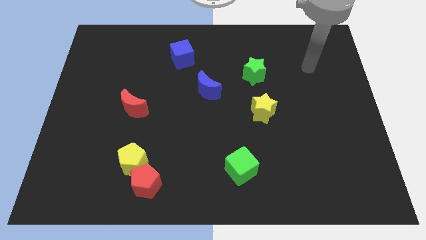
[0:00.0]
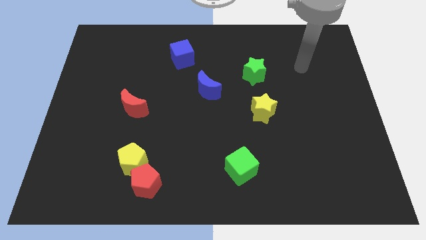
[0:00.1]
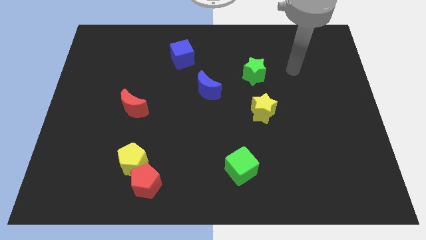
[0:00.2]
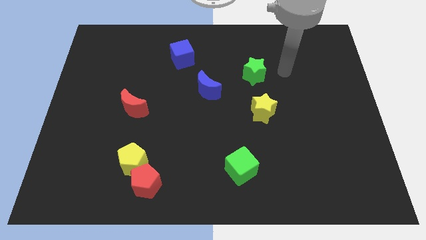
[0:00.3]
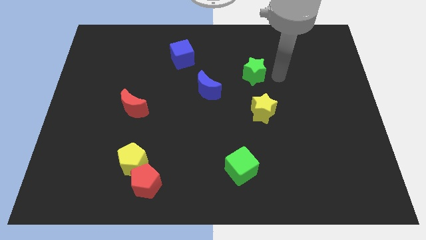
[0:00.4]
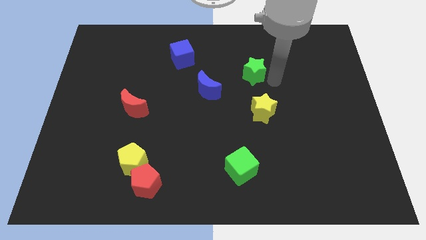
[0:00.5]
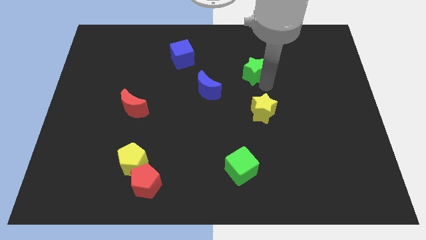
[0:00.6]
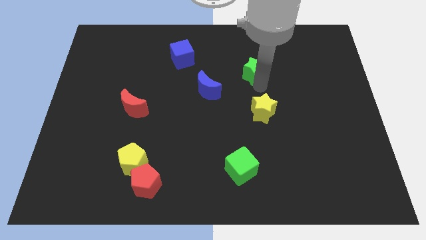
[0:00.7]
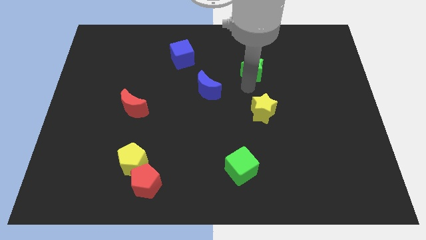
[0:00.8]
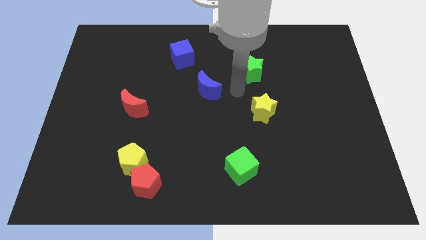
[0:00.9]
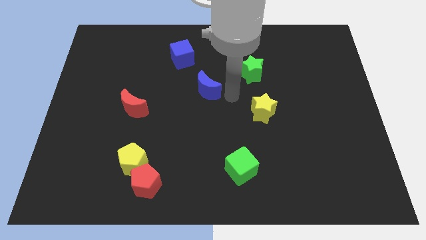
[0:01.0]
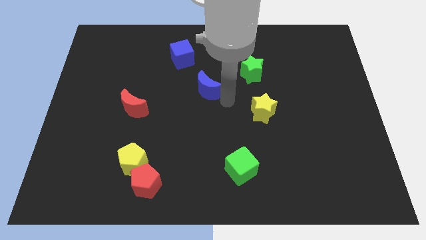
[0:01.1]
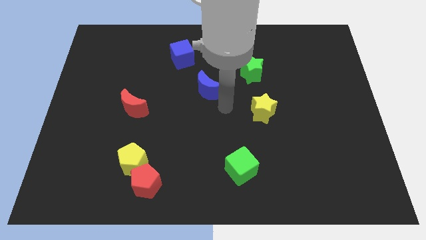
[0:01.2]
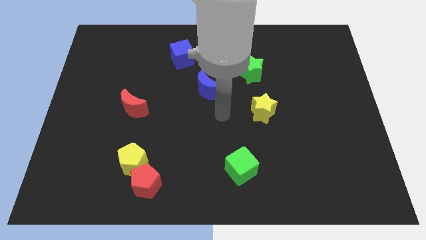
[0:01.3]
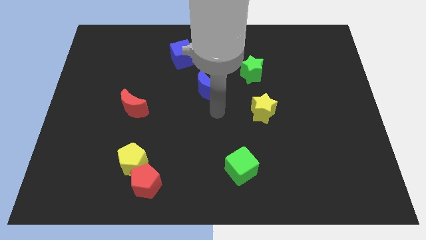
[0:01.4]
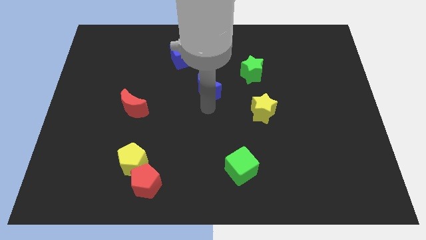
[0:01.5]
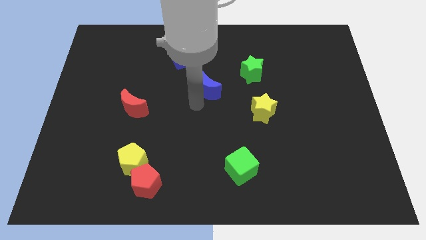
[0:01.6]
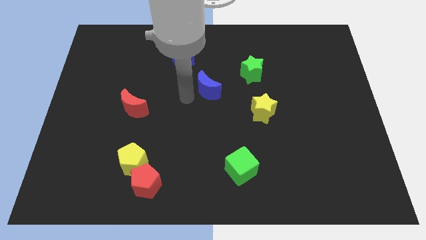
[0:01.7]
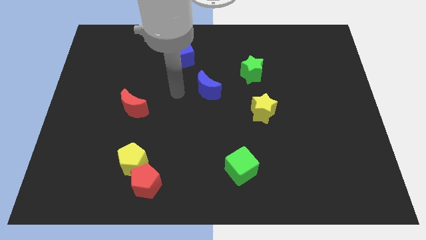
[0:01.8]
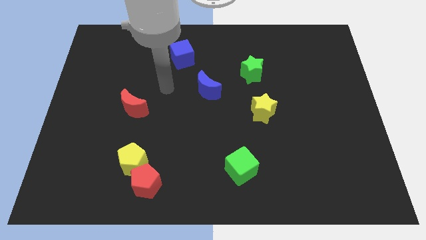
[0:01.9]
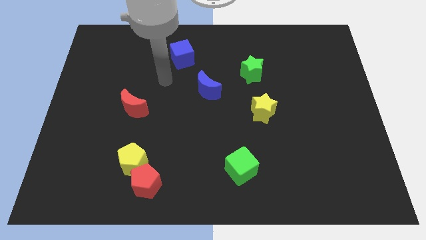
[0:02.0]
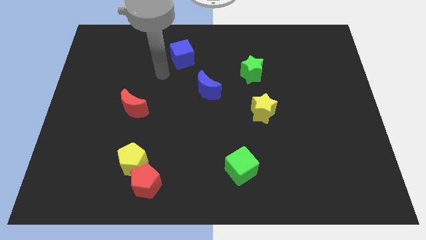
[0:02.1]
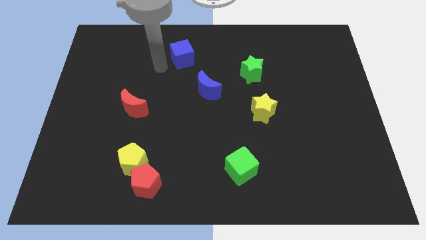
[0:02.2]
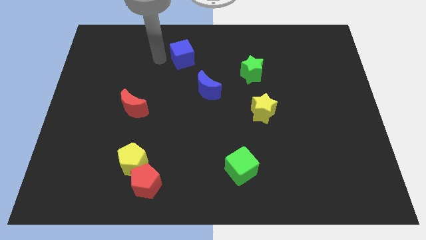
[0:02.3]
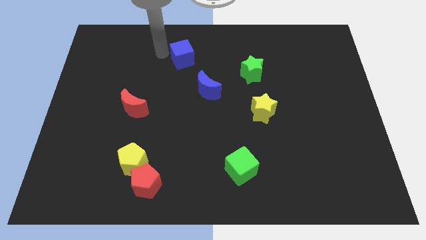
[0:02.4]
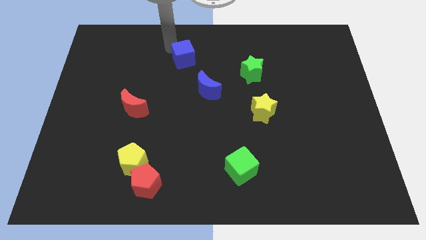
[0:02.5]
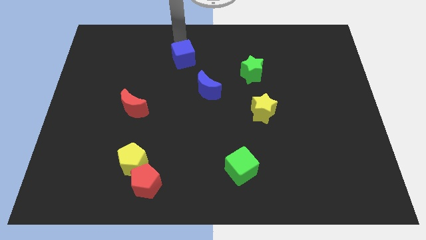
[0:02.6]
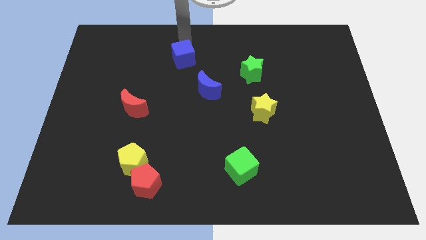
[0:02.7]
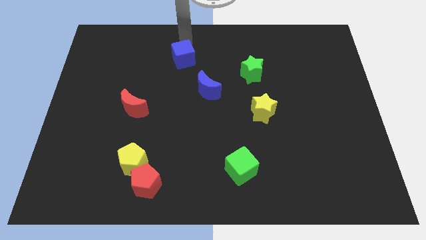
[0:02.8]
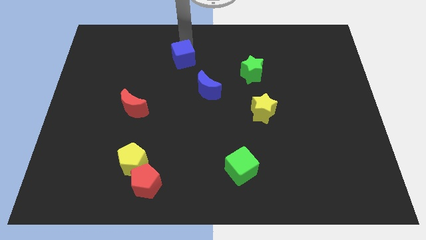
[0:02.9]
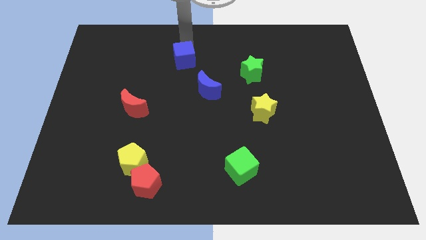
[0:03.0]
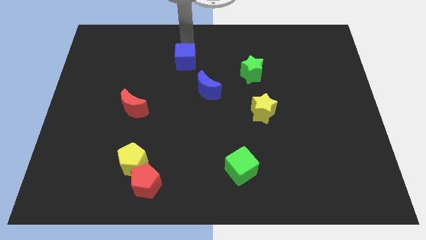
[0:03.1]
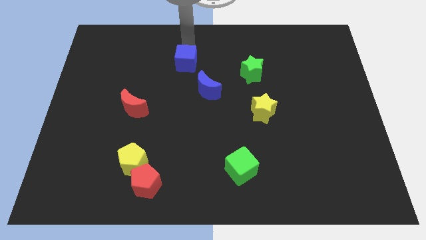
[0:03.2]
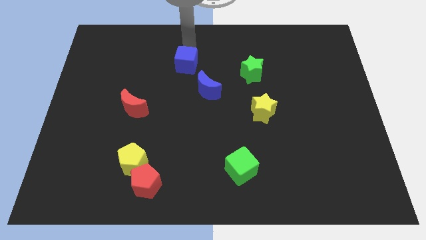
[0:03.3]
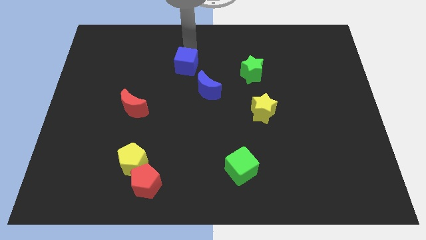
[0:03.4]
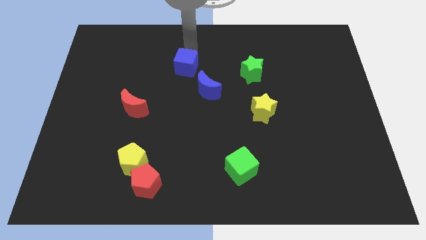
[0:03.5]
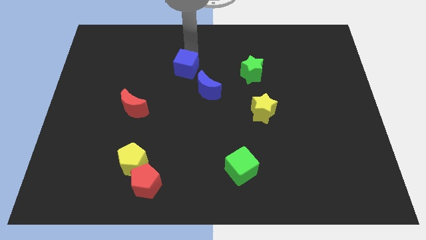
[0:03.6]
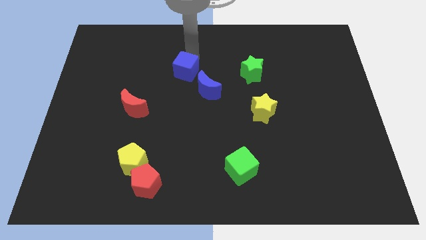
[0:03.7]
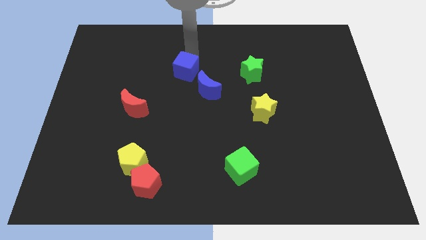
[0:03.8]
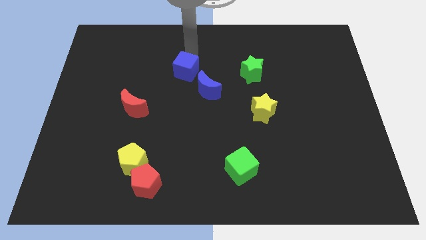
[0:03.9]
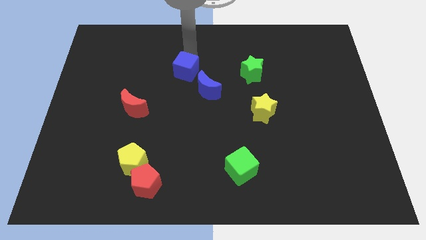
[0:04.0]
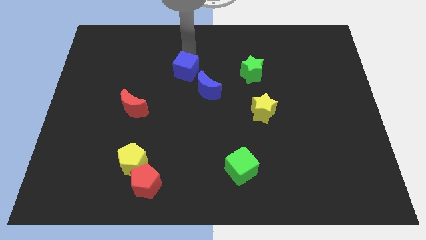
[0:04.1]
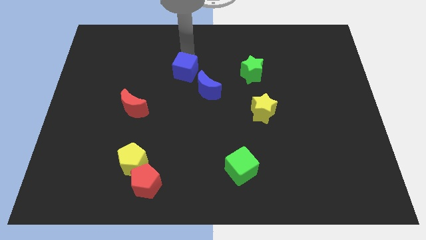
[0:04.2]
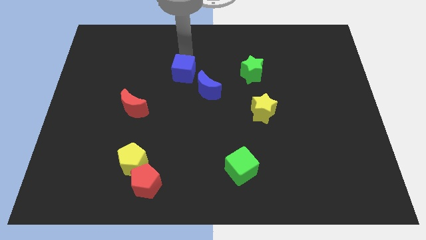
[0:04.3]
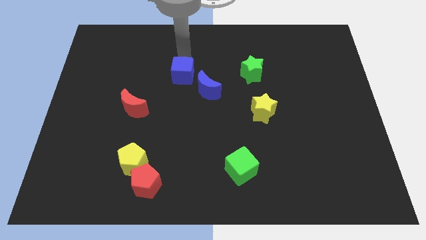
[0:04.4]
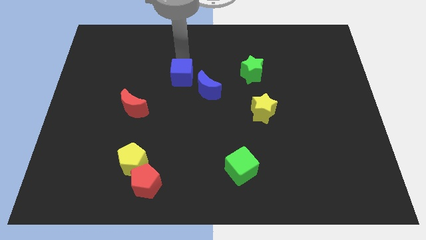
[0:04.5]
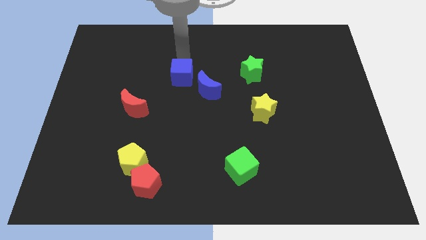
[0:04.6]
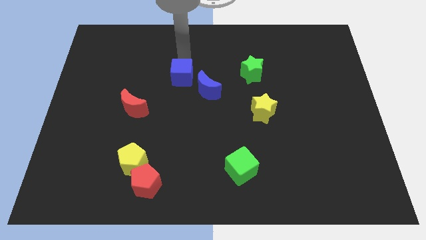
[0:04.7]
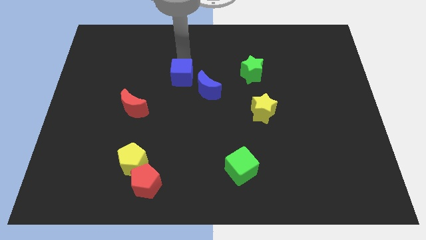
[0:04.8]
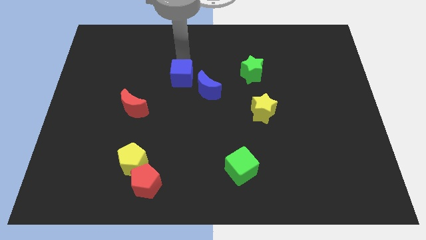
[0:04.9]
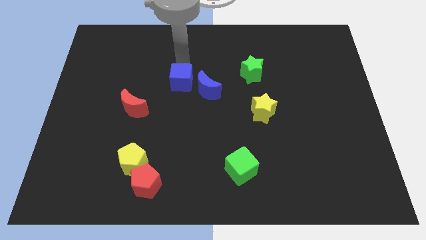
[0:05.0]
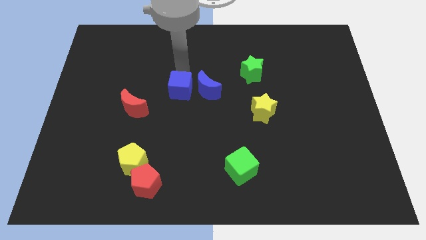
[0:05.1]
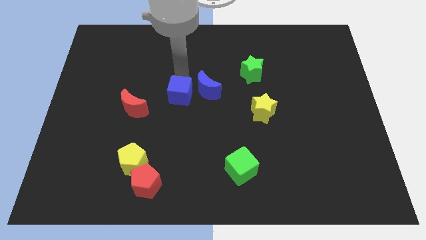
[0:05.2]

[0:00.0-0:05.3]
push the blue cube just right of the red moon

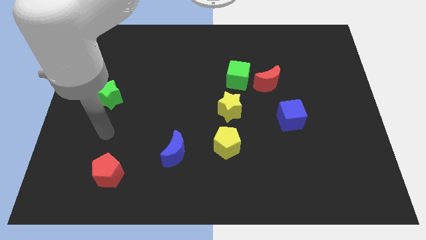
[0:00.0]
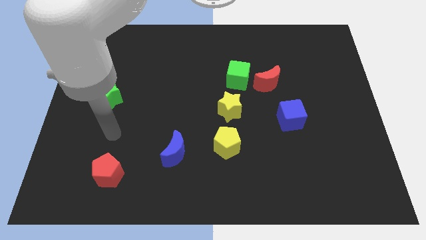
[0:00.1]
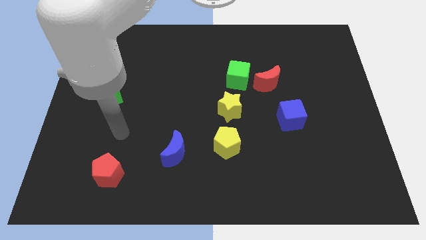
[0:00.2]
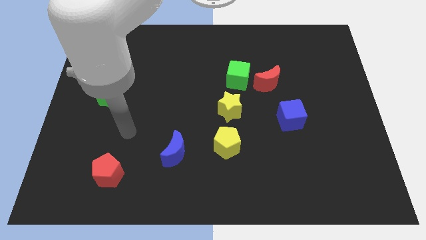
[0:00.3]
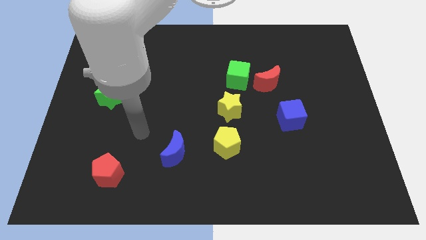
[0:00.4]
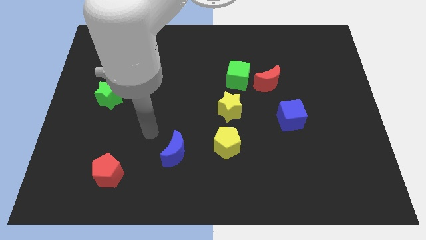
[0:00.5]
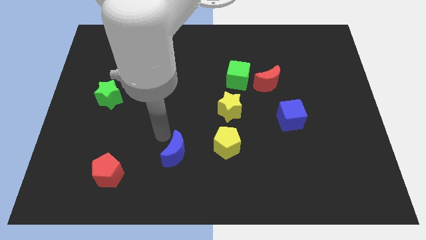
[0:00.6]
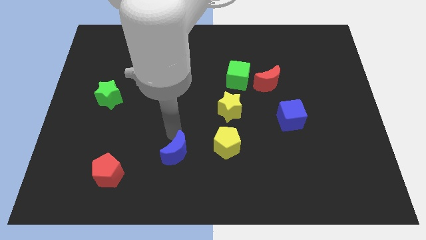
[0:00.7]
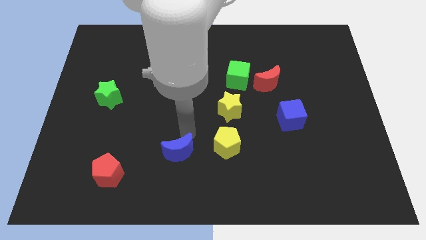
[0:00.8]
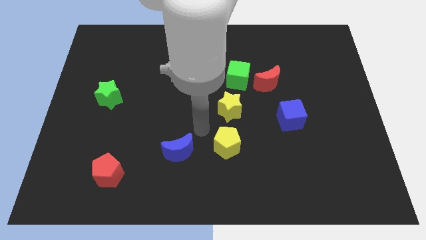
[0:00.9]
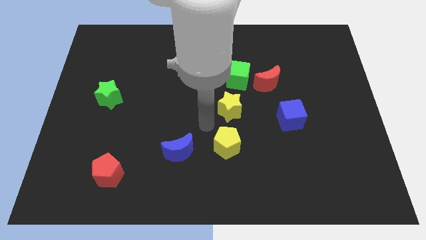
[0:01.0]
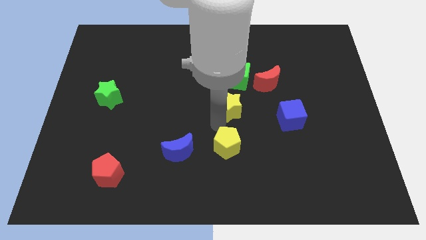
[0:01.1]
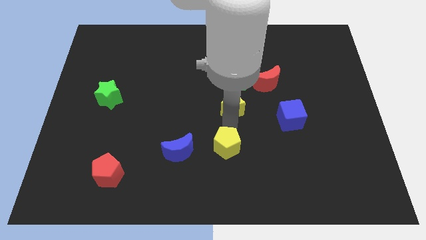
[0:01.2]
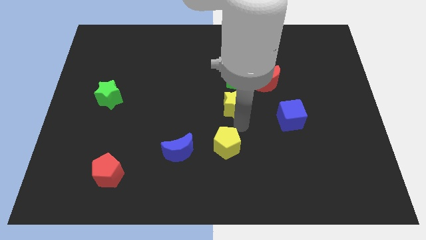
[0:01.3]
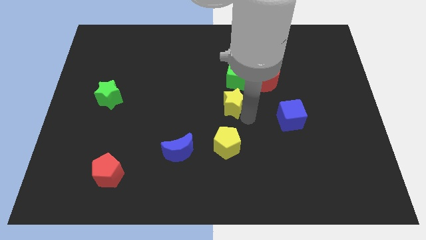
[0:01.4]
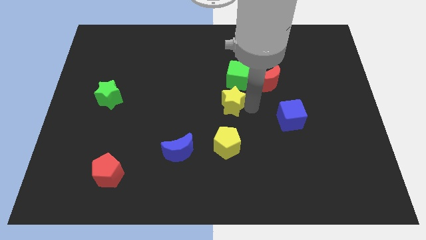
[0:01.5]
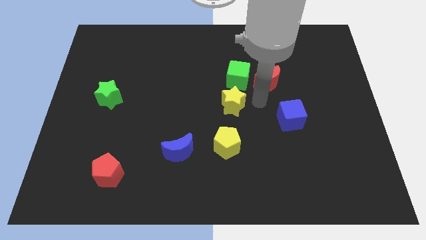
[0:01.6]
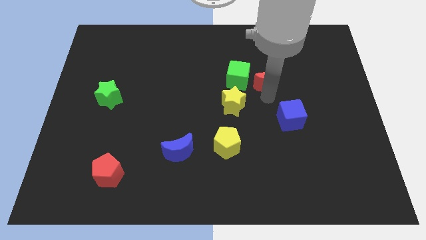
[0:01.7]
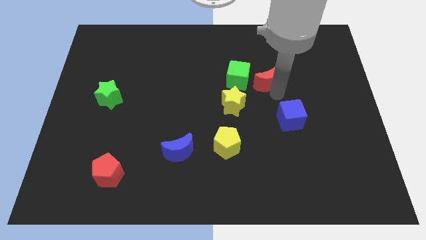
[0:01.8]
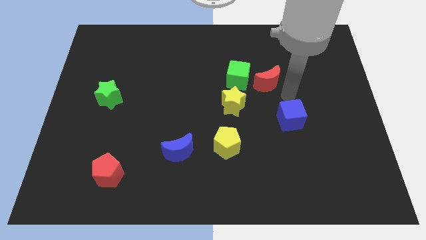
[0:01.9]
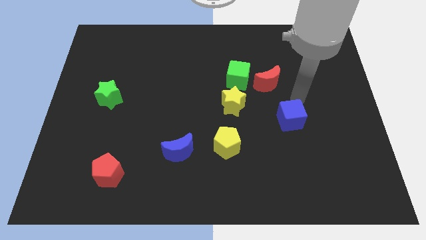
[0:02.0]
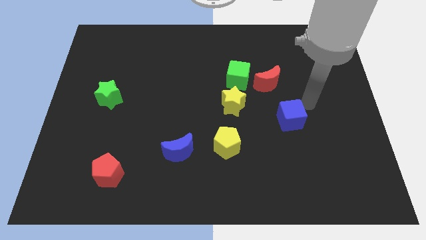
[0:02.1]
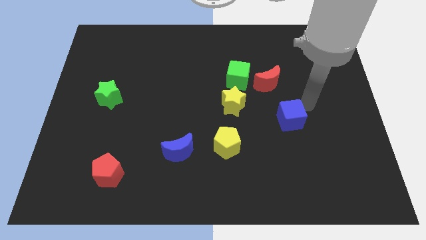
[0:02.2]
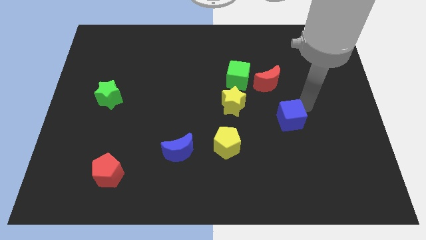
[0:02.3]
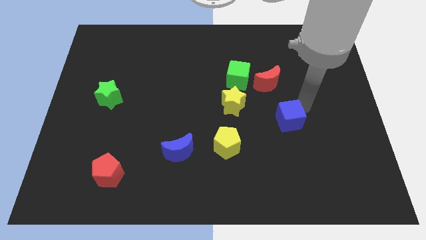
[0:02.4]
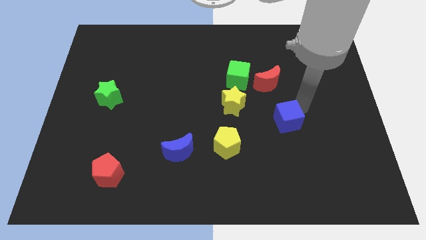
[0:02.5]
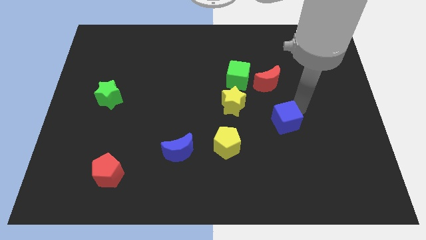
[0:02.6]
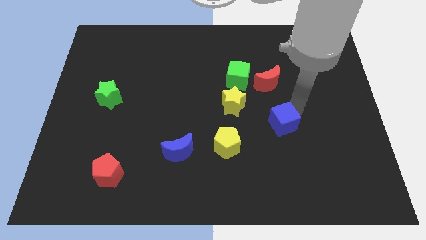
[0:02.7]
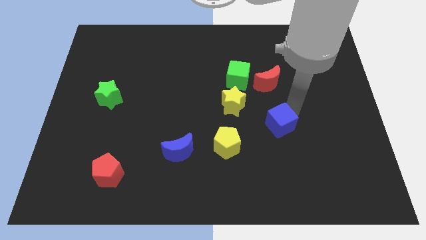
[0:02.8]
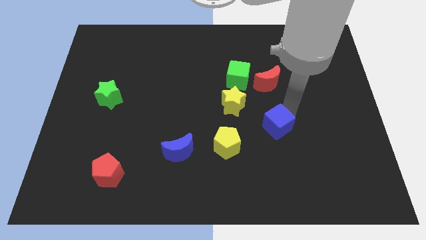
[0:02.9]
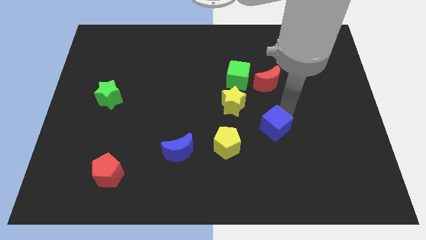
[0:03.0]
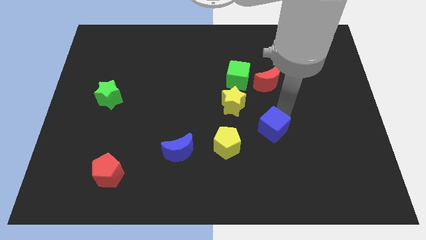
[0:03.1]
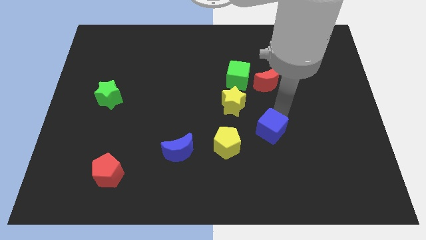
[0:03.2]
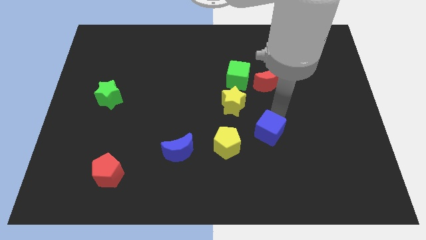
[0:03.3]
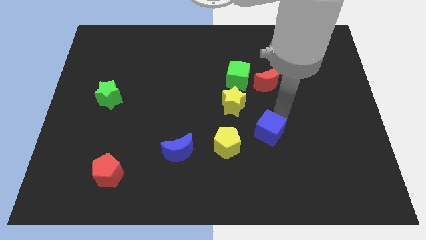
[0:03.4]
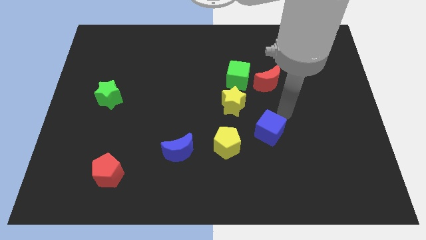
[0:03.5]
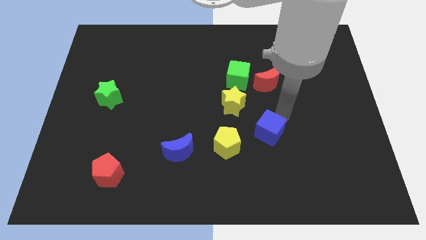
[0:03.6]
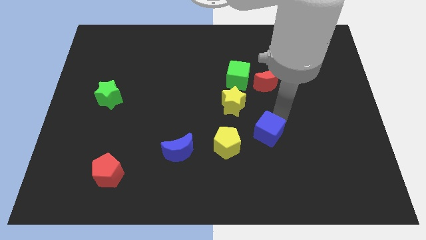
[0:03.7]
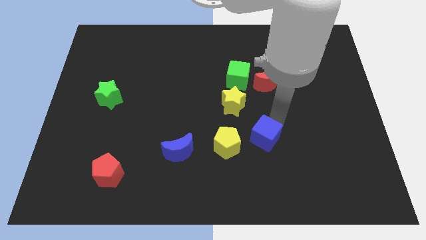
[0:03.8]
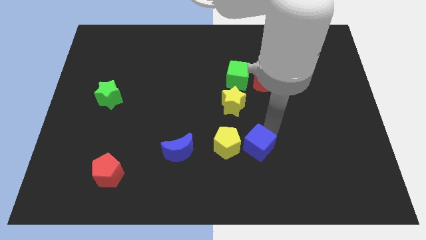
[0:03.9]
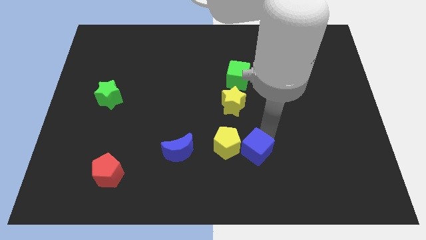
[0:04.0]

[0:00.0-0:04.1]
put the blue cube to the bottom of the yellow star
